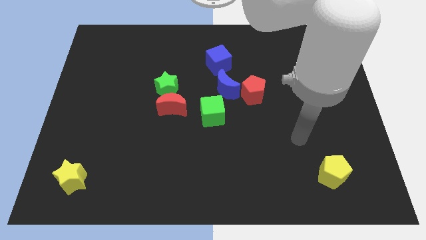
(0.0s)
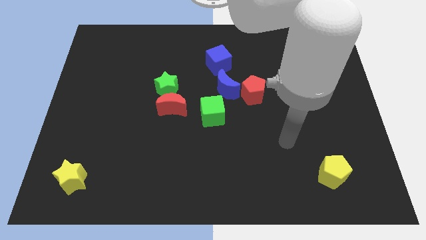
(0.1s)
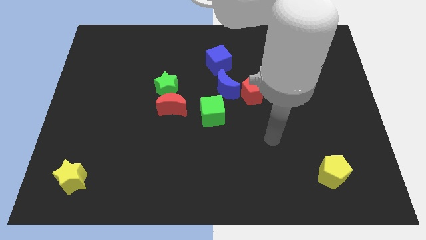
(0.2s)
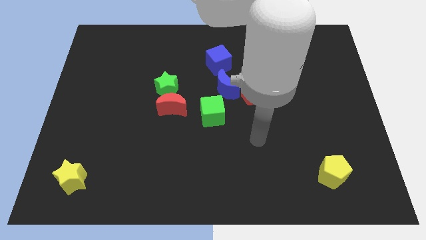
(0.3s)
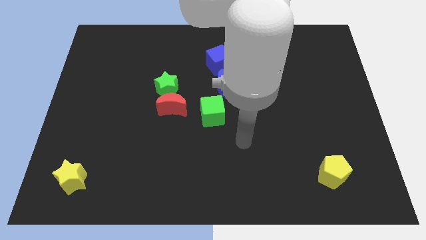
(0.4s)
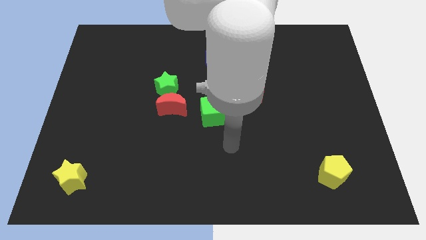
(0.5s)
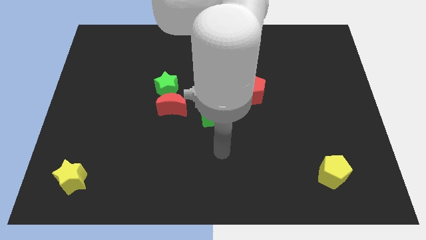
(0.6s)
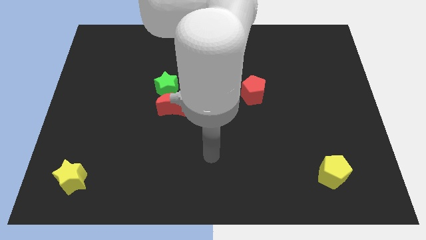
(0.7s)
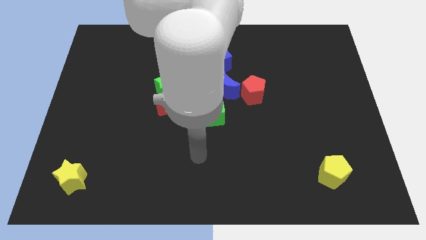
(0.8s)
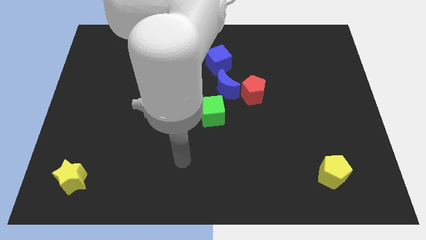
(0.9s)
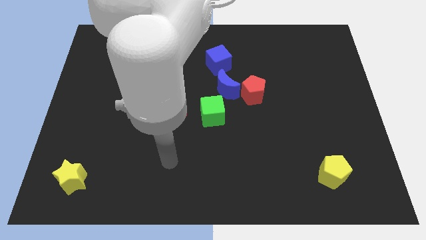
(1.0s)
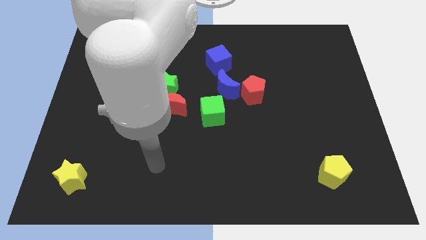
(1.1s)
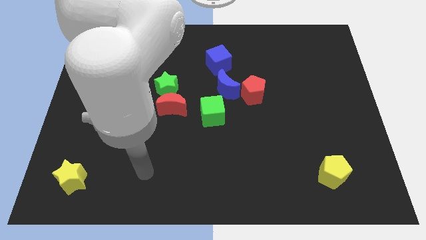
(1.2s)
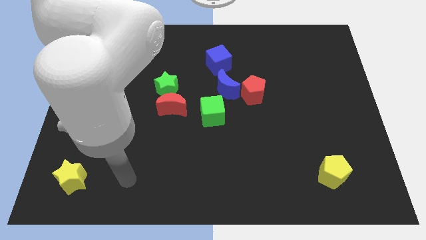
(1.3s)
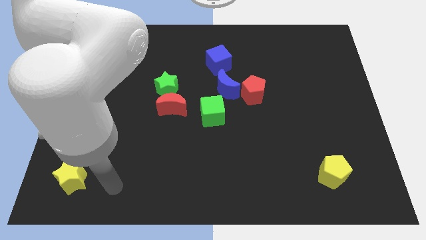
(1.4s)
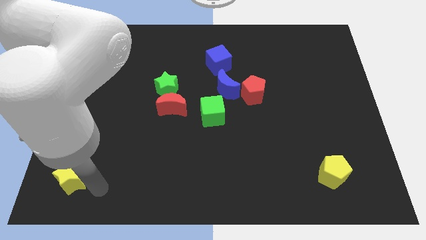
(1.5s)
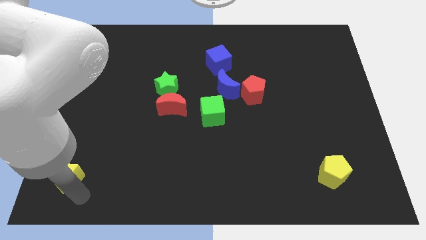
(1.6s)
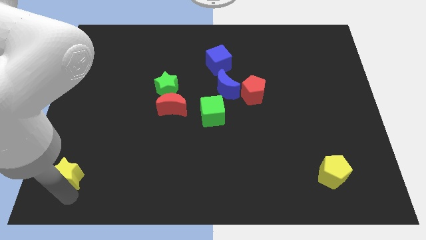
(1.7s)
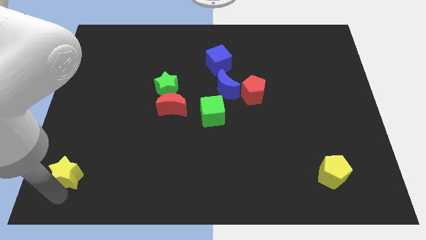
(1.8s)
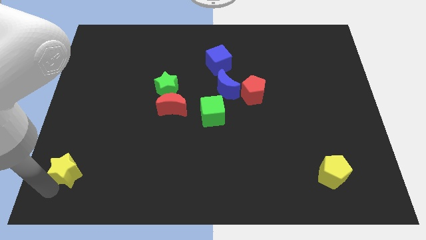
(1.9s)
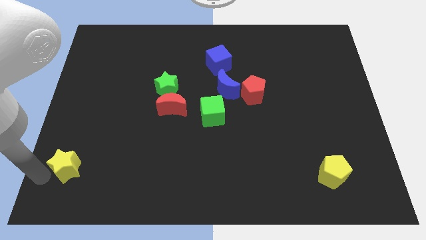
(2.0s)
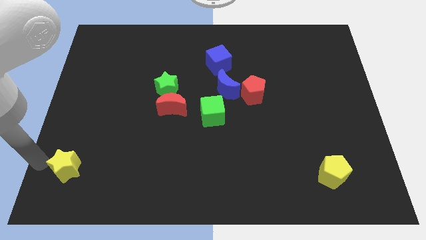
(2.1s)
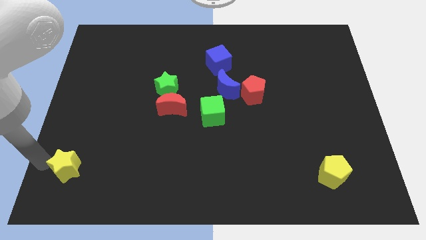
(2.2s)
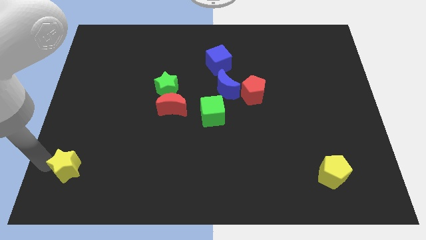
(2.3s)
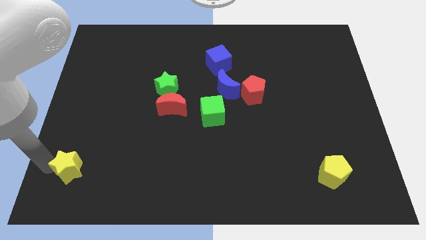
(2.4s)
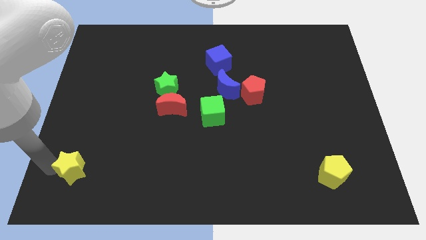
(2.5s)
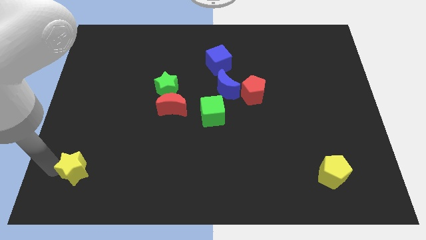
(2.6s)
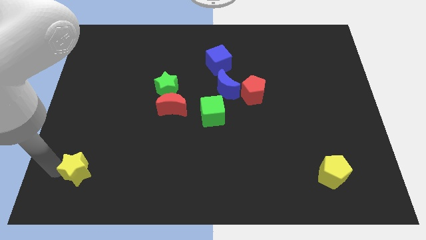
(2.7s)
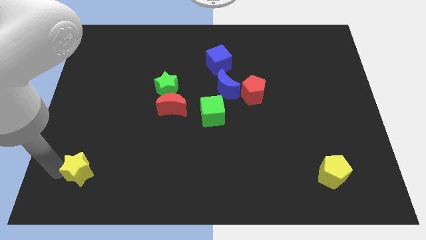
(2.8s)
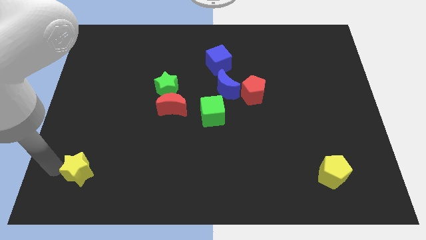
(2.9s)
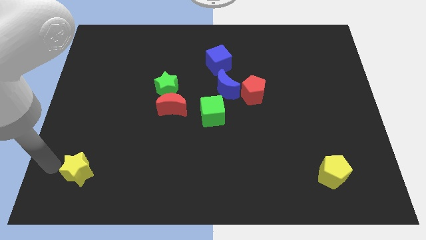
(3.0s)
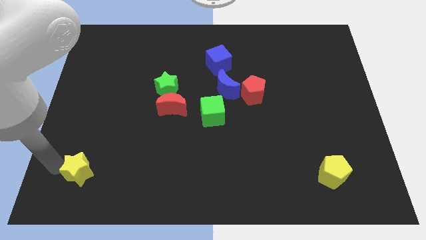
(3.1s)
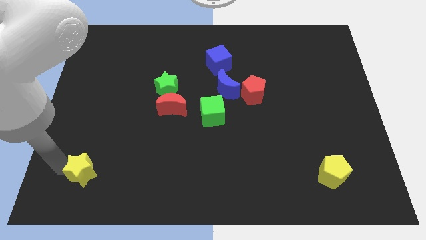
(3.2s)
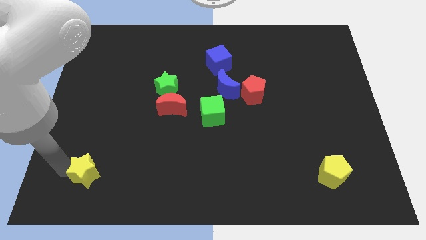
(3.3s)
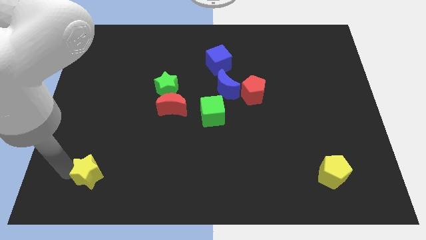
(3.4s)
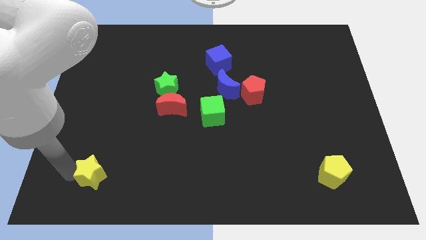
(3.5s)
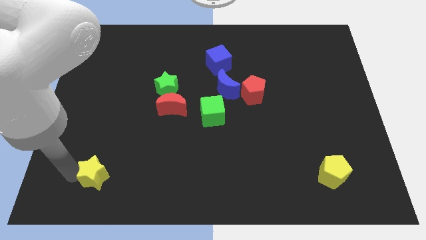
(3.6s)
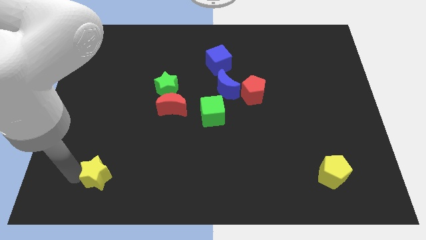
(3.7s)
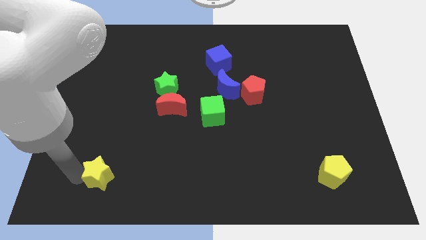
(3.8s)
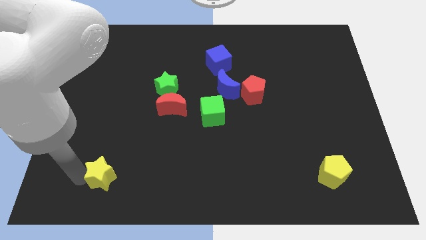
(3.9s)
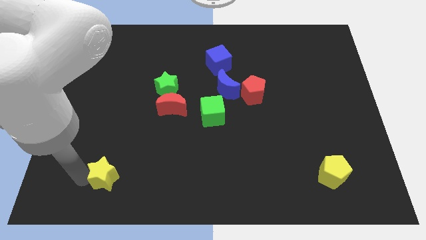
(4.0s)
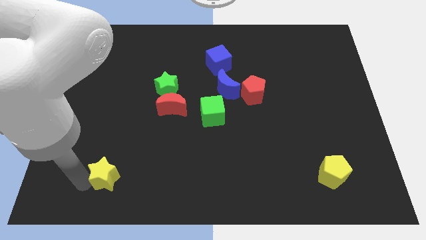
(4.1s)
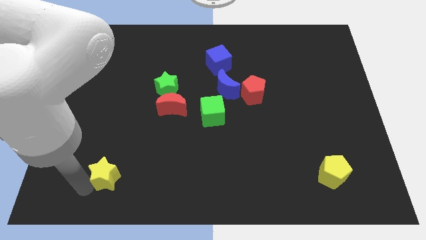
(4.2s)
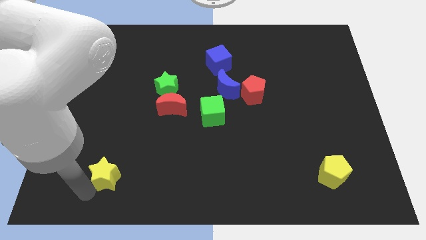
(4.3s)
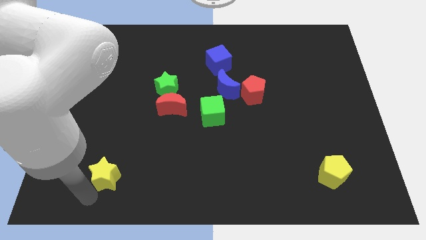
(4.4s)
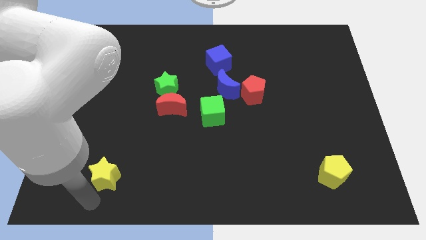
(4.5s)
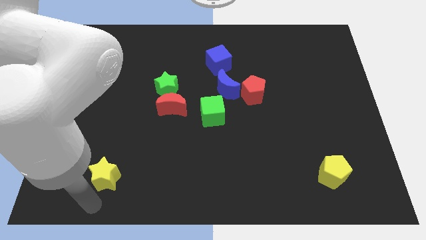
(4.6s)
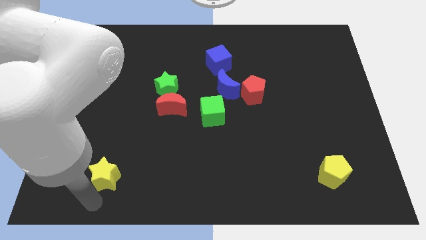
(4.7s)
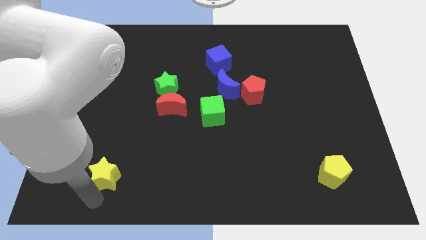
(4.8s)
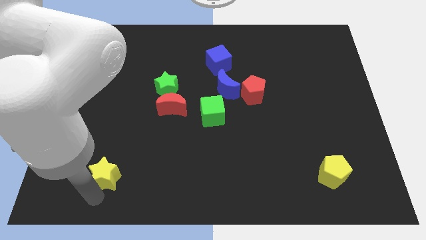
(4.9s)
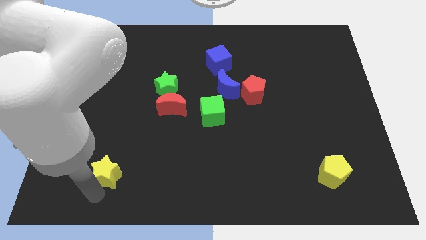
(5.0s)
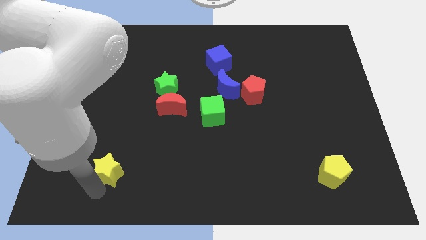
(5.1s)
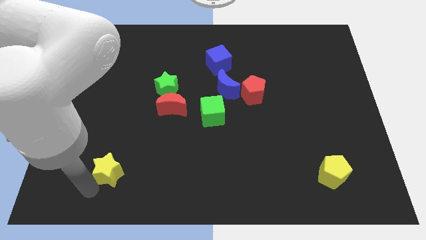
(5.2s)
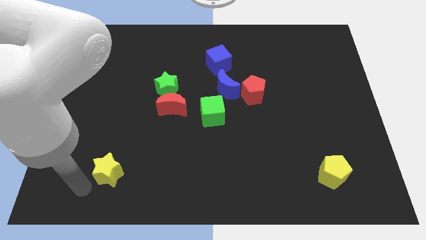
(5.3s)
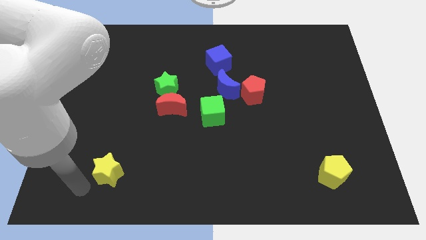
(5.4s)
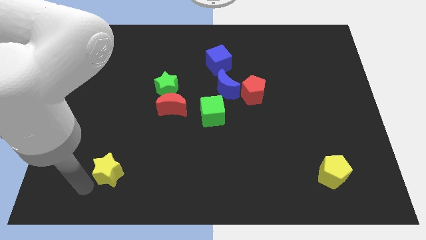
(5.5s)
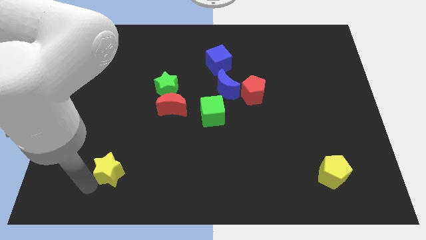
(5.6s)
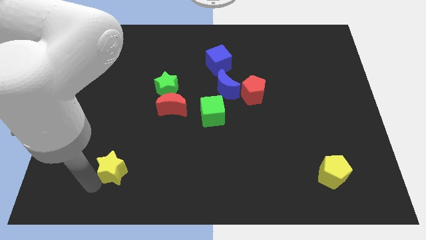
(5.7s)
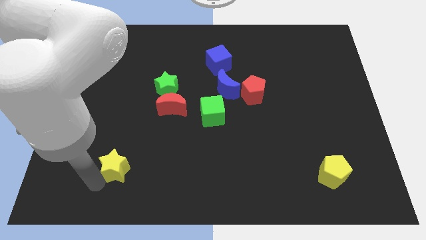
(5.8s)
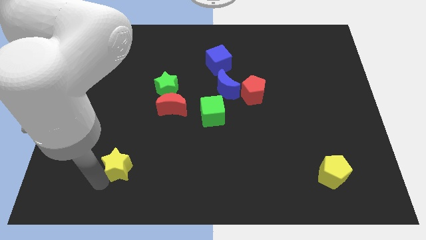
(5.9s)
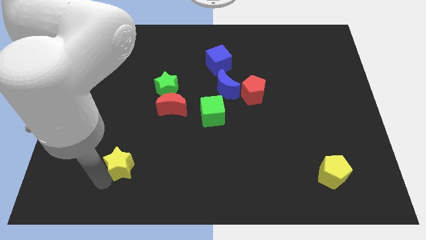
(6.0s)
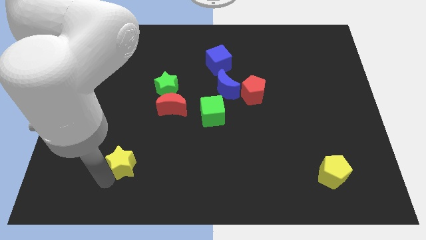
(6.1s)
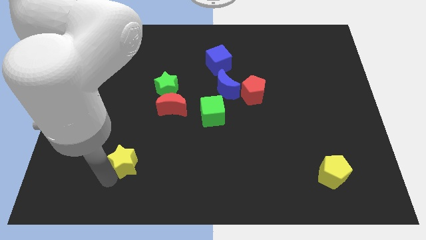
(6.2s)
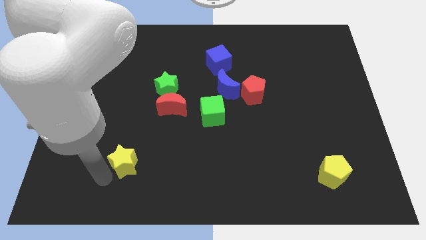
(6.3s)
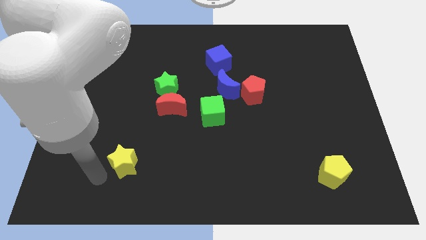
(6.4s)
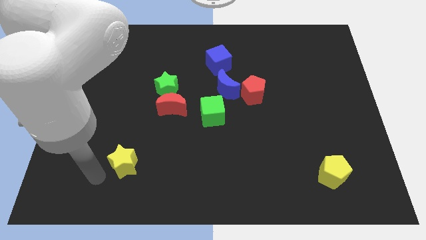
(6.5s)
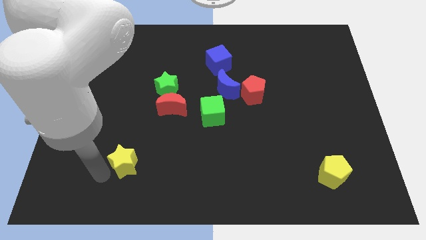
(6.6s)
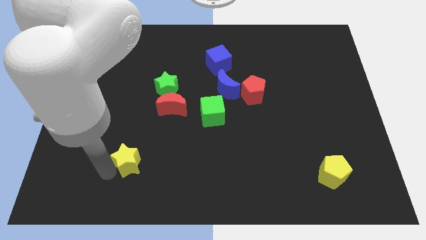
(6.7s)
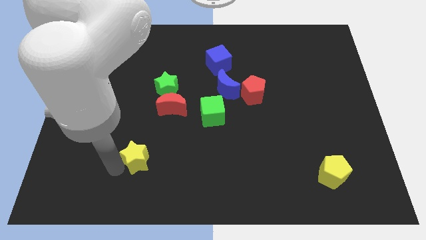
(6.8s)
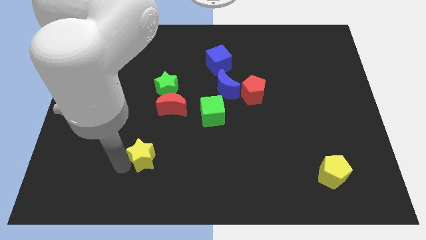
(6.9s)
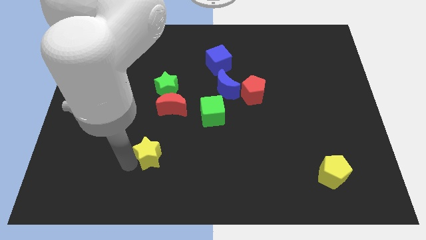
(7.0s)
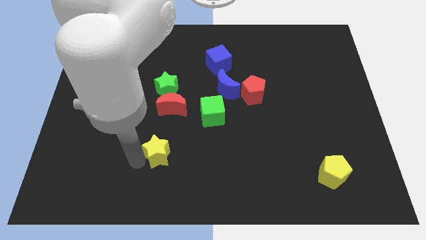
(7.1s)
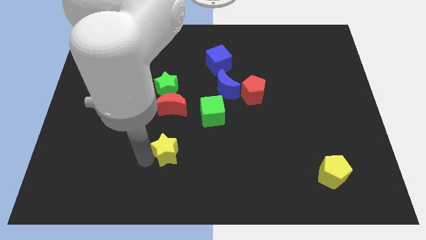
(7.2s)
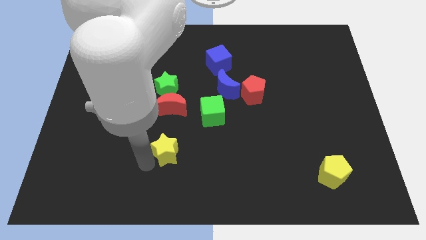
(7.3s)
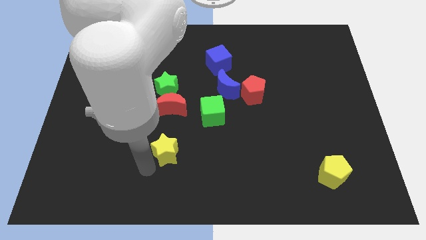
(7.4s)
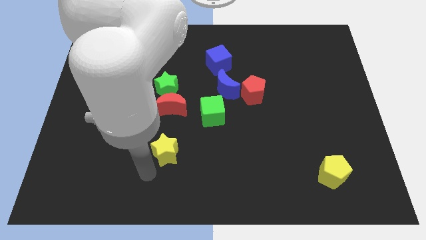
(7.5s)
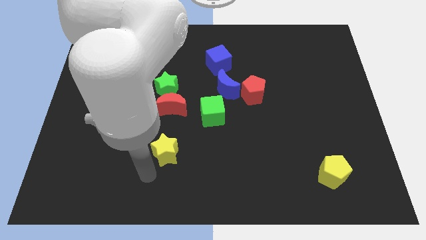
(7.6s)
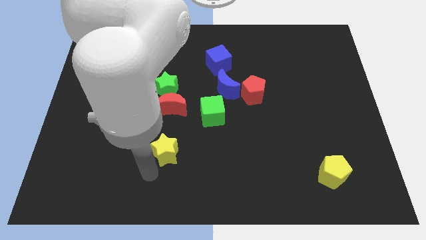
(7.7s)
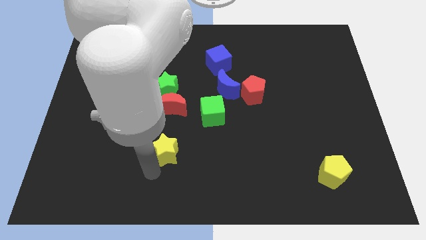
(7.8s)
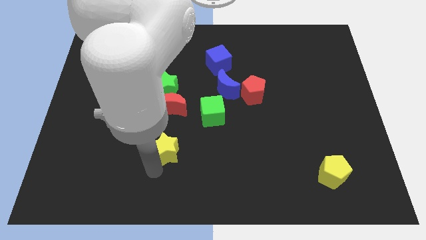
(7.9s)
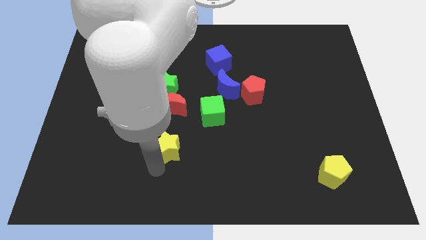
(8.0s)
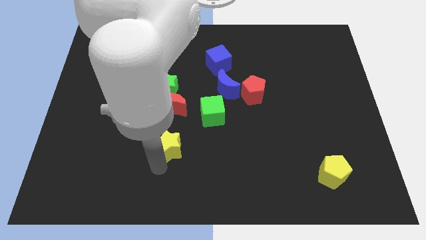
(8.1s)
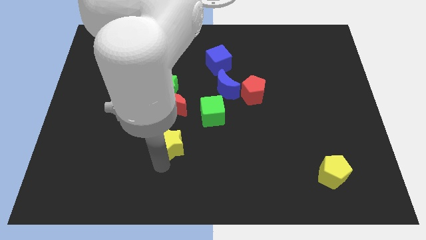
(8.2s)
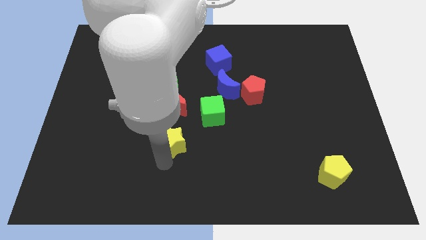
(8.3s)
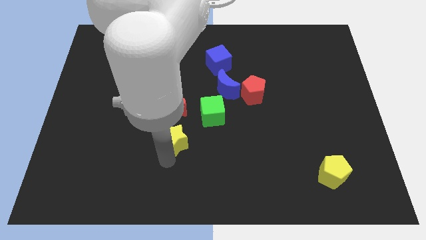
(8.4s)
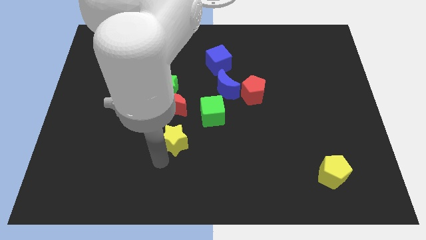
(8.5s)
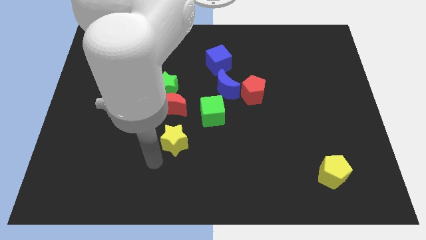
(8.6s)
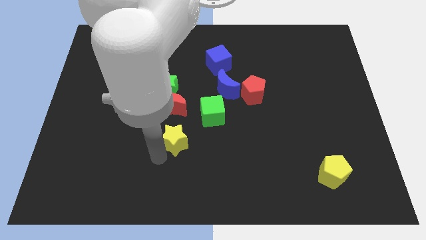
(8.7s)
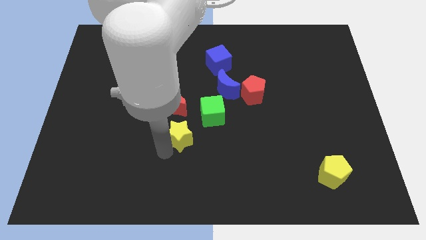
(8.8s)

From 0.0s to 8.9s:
slide the yellow star to the bottom right side of the red moon
